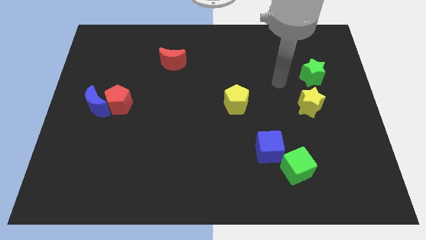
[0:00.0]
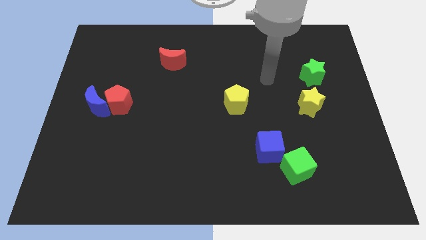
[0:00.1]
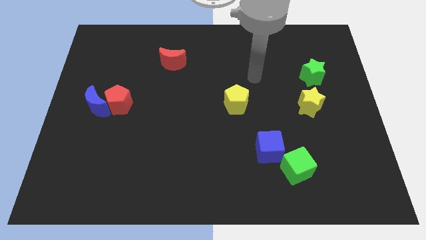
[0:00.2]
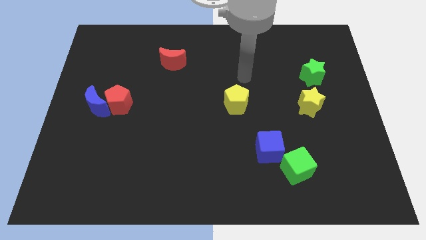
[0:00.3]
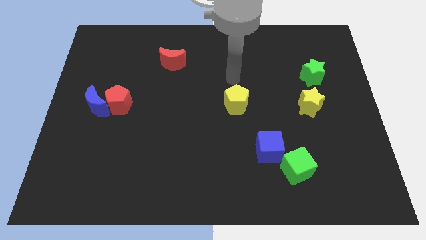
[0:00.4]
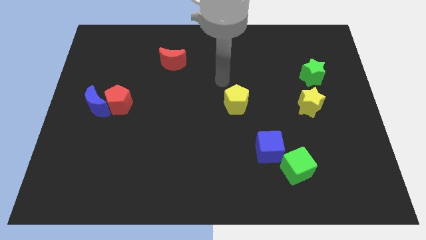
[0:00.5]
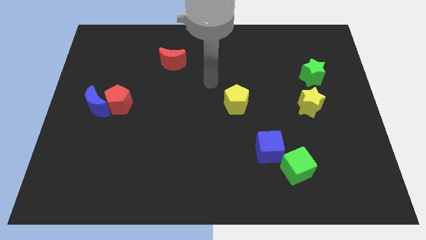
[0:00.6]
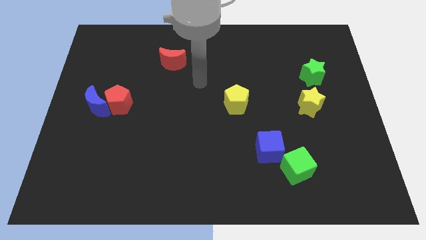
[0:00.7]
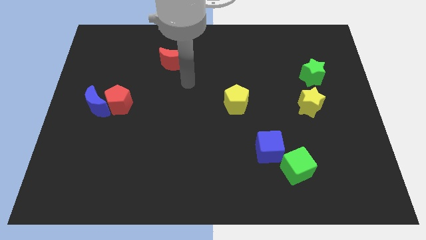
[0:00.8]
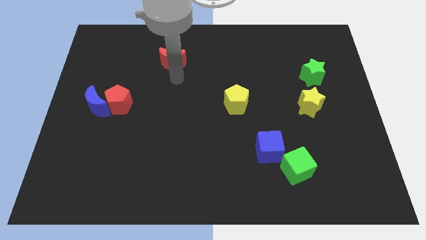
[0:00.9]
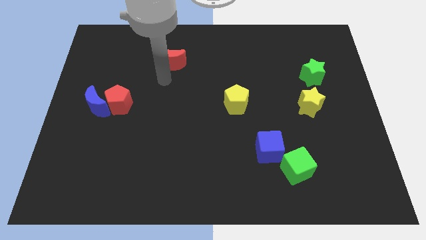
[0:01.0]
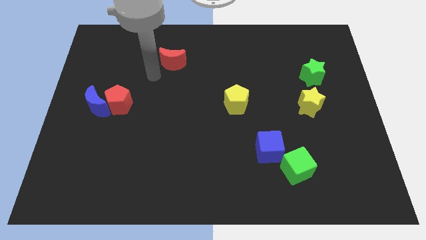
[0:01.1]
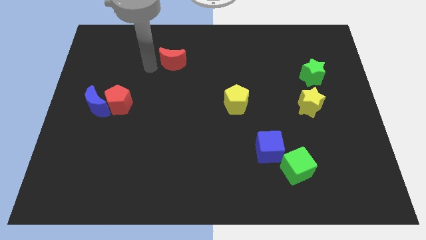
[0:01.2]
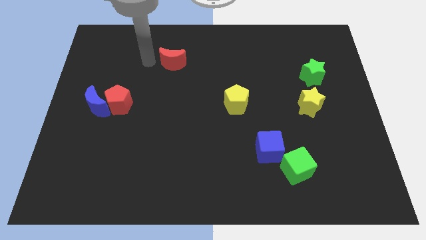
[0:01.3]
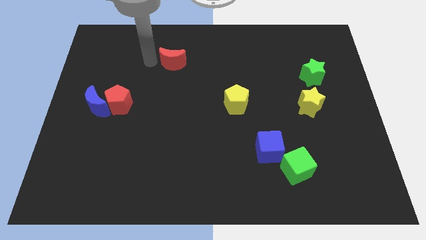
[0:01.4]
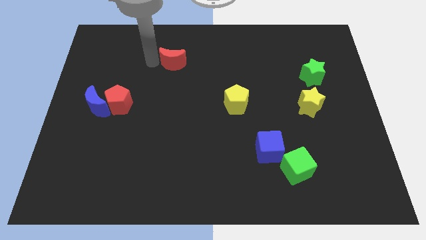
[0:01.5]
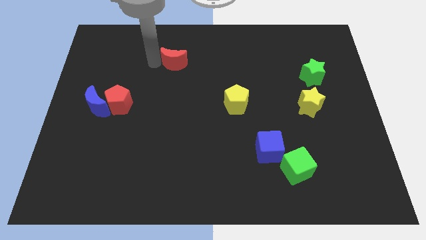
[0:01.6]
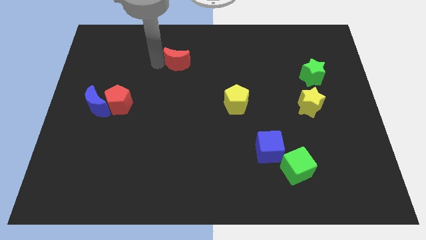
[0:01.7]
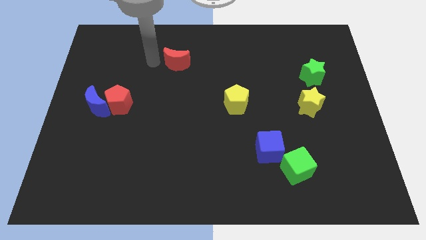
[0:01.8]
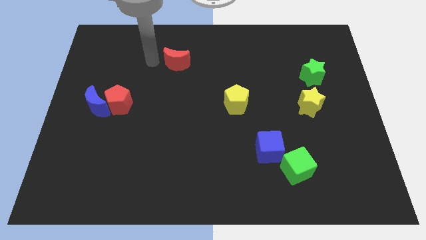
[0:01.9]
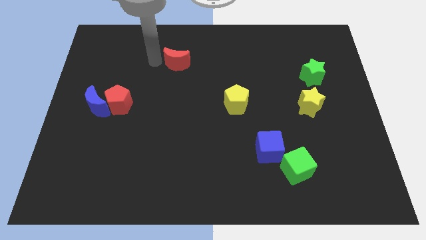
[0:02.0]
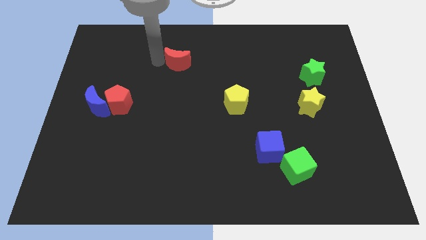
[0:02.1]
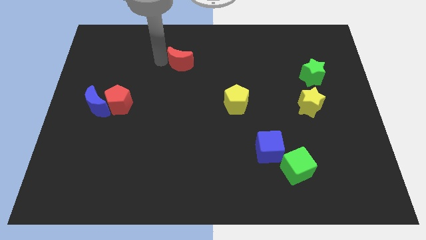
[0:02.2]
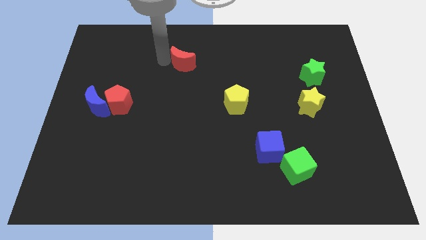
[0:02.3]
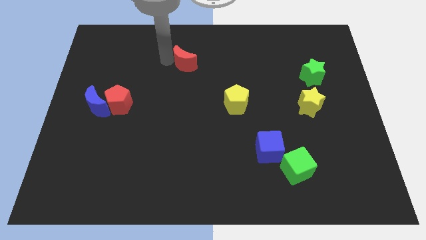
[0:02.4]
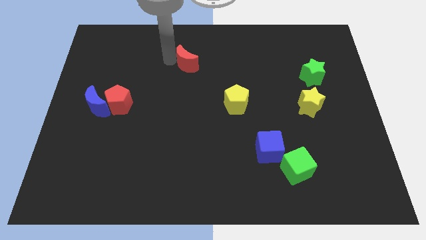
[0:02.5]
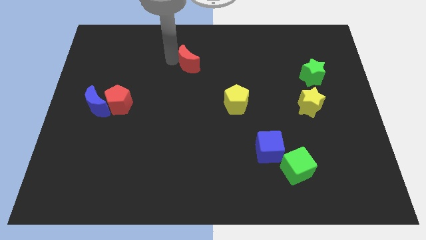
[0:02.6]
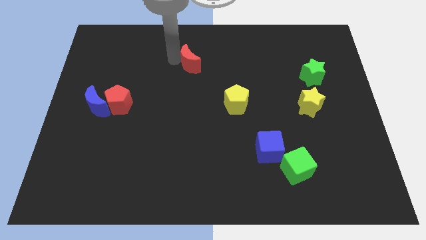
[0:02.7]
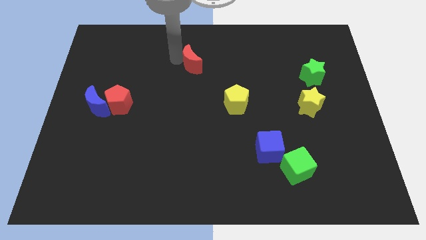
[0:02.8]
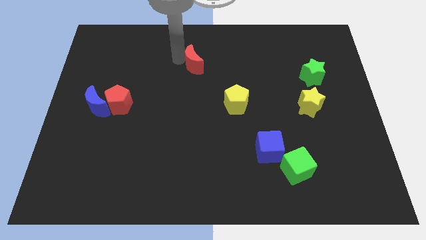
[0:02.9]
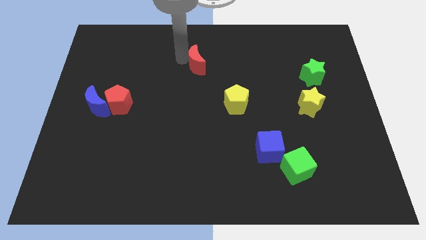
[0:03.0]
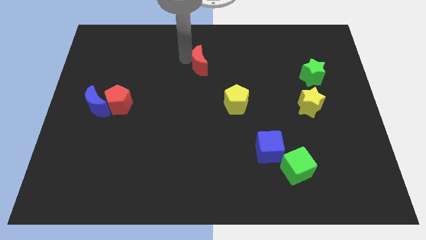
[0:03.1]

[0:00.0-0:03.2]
move the red moon a little right

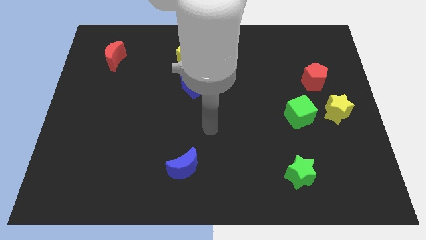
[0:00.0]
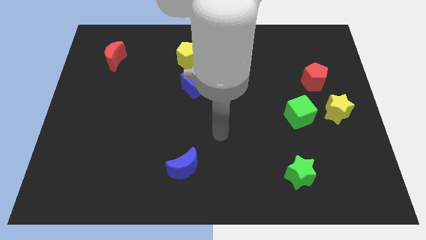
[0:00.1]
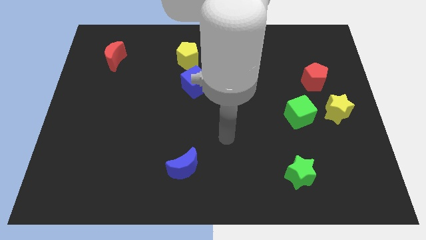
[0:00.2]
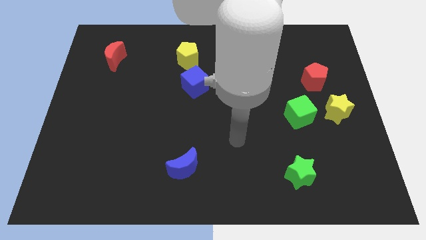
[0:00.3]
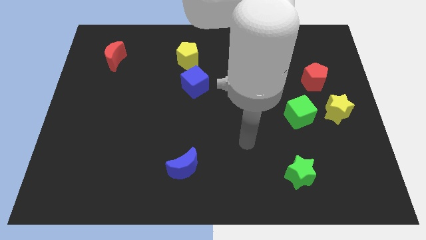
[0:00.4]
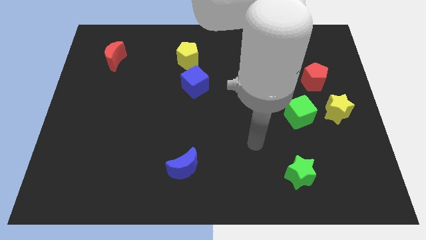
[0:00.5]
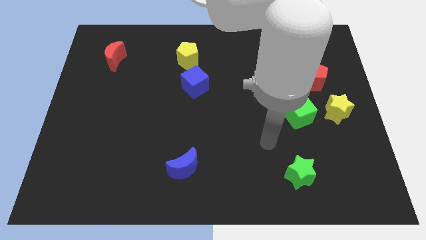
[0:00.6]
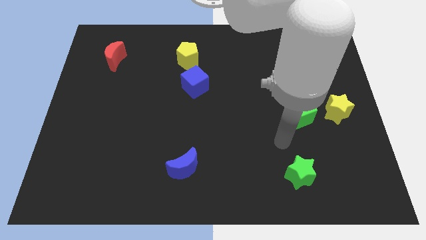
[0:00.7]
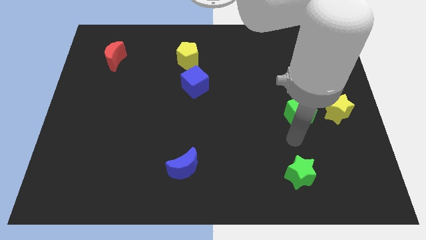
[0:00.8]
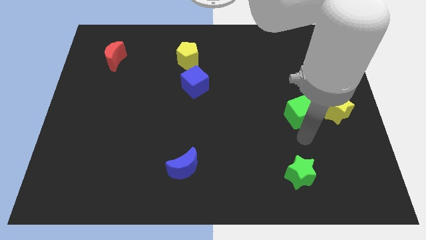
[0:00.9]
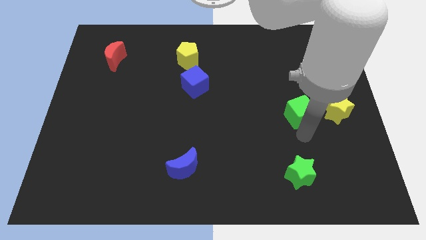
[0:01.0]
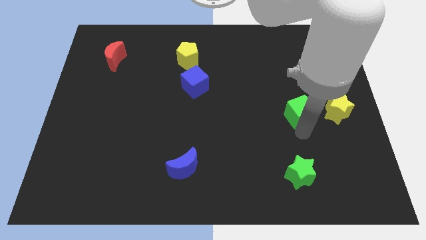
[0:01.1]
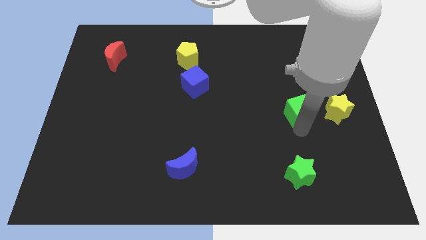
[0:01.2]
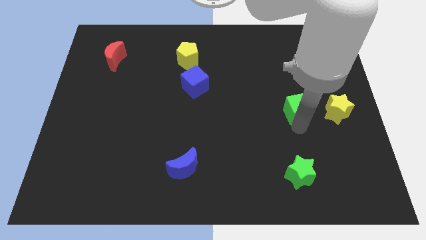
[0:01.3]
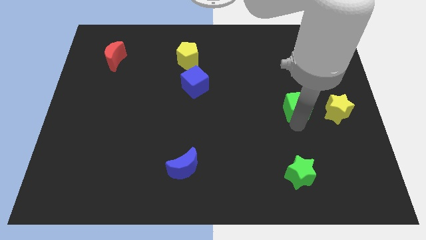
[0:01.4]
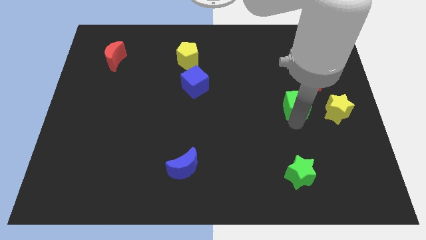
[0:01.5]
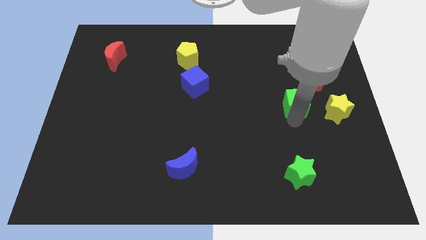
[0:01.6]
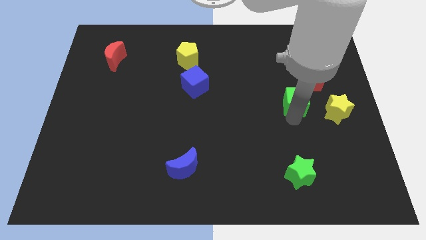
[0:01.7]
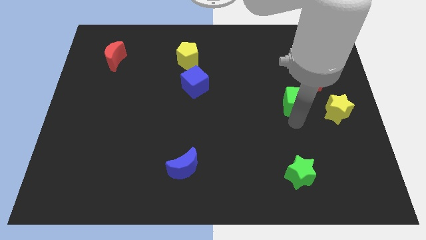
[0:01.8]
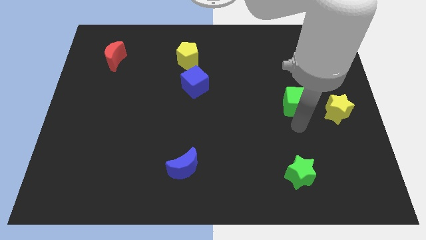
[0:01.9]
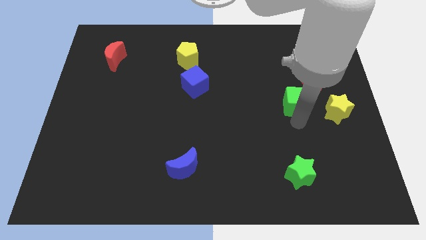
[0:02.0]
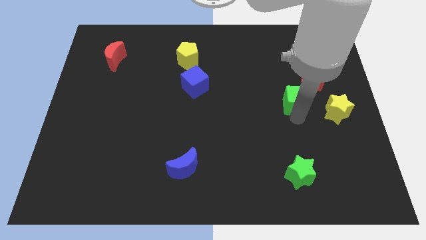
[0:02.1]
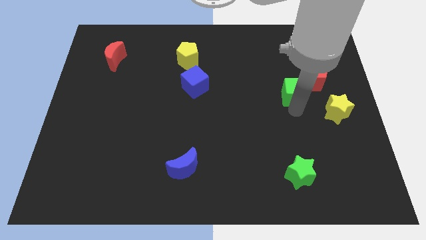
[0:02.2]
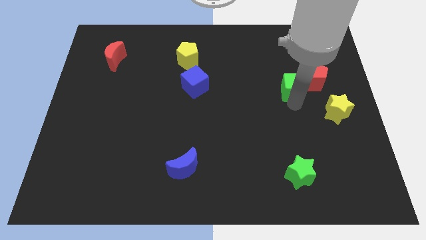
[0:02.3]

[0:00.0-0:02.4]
move the green cube a bit up

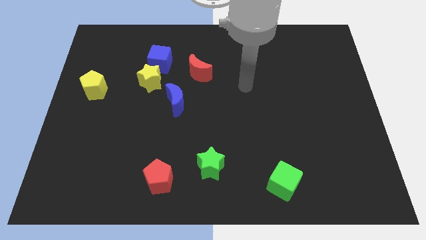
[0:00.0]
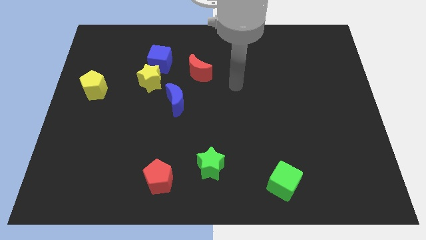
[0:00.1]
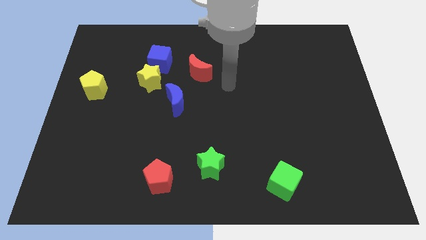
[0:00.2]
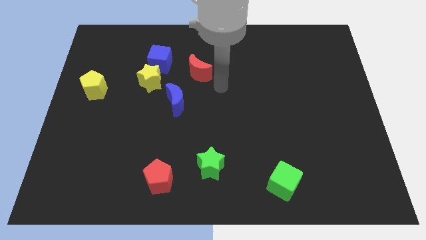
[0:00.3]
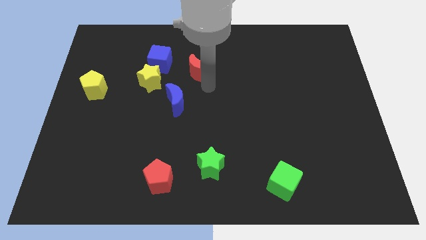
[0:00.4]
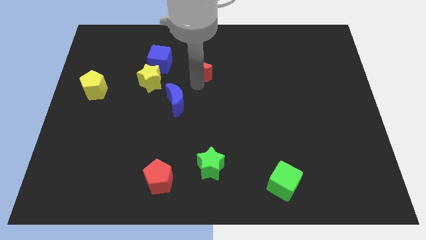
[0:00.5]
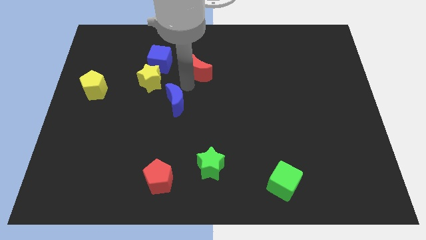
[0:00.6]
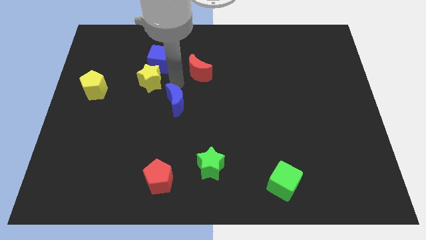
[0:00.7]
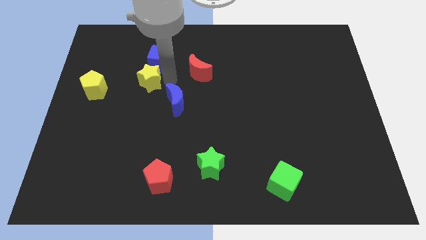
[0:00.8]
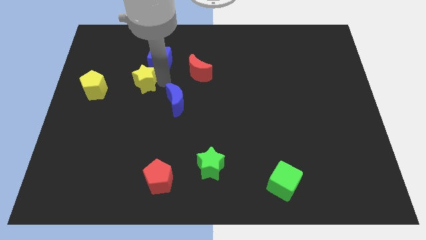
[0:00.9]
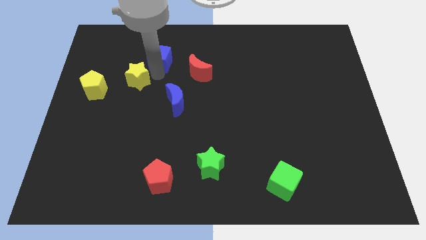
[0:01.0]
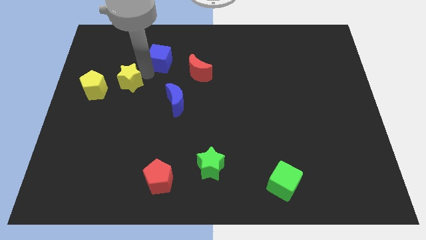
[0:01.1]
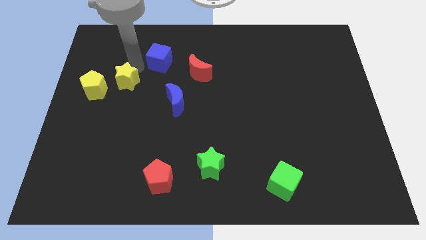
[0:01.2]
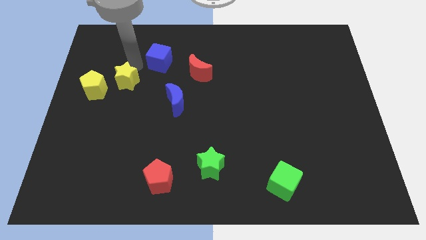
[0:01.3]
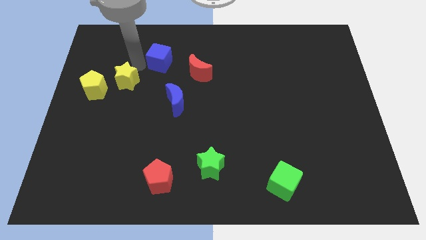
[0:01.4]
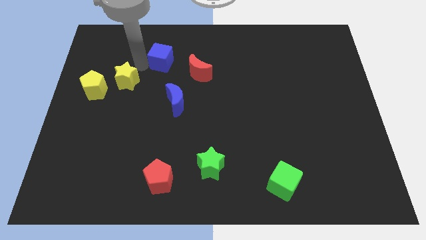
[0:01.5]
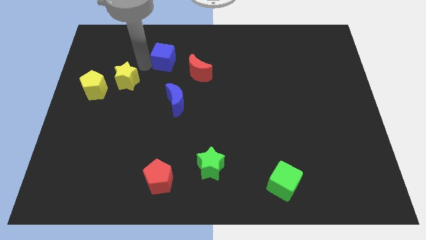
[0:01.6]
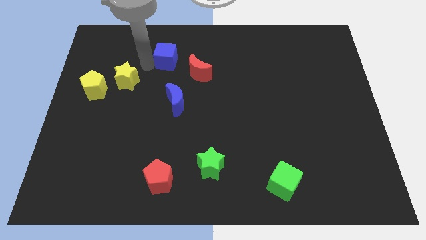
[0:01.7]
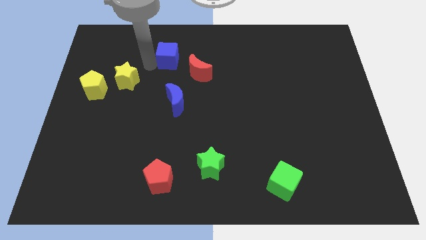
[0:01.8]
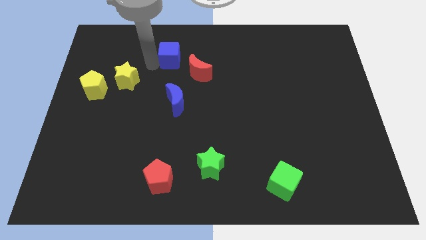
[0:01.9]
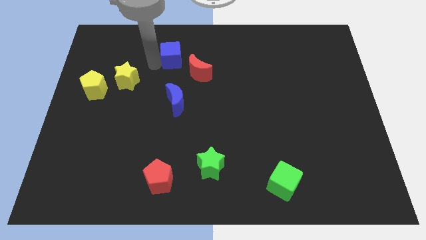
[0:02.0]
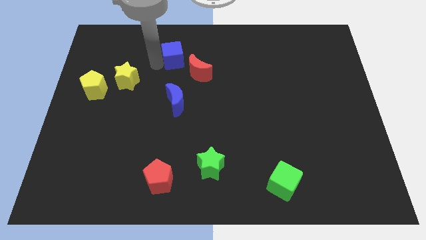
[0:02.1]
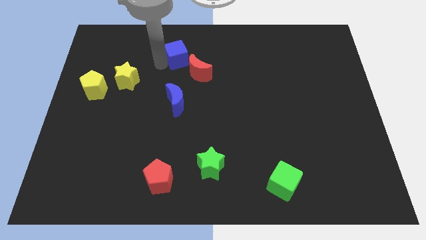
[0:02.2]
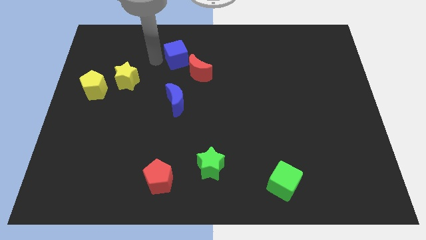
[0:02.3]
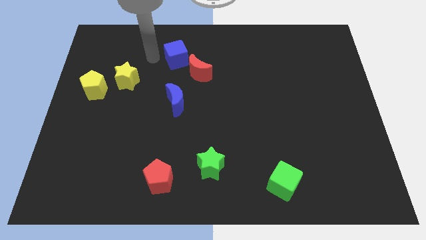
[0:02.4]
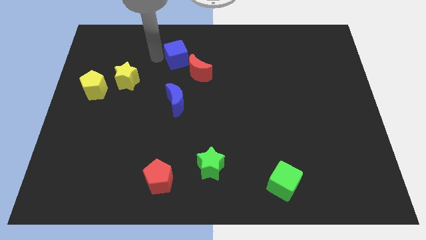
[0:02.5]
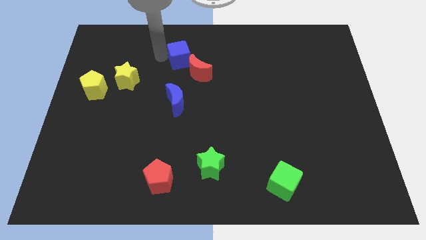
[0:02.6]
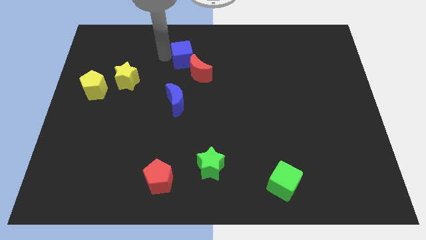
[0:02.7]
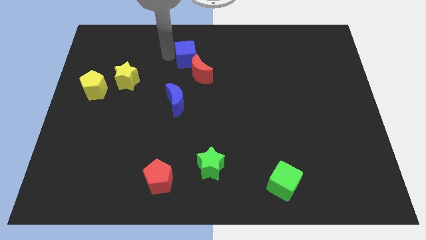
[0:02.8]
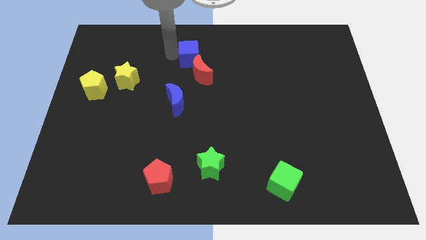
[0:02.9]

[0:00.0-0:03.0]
push the blue cube a bit right

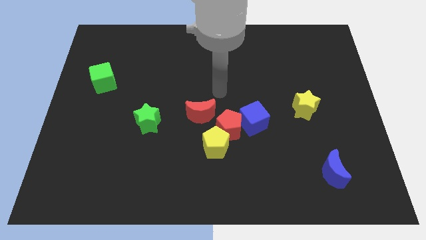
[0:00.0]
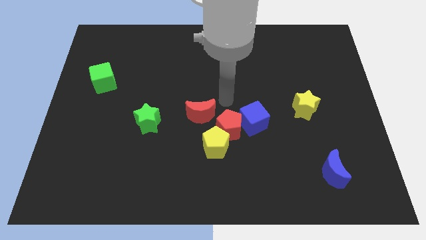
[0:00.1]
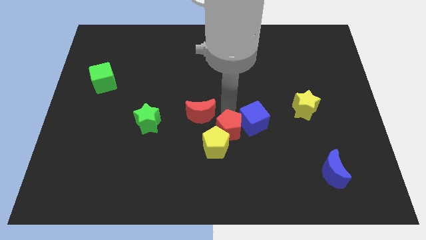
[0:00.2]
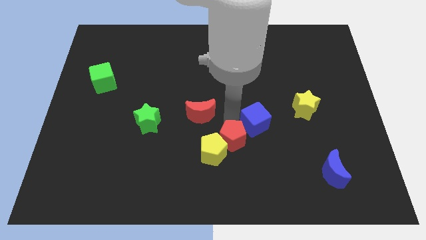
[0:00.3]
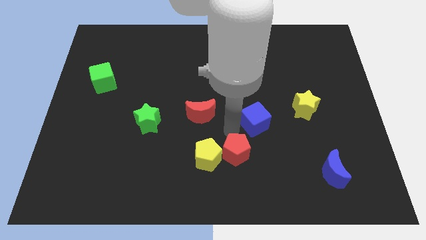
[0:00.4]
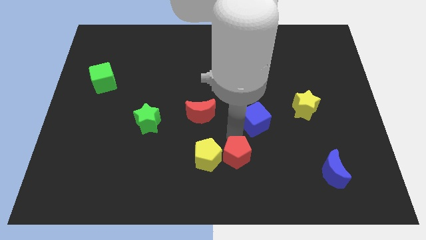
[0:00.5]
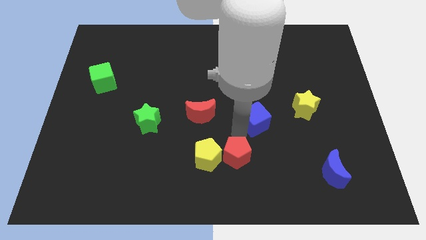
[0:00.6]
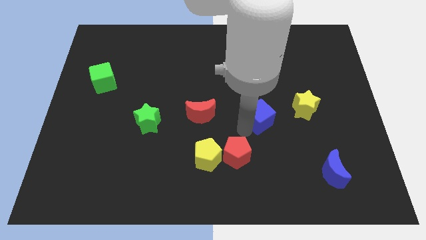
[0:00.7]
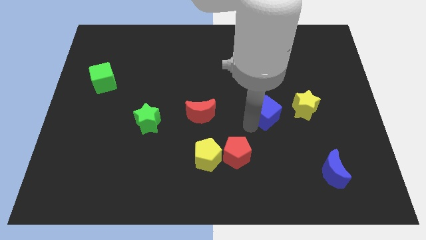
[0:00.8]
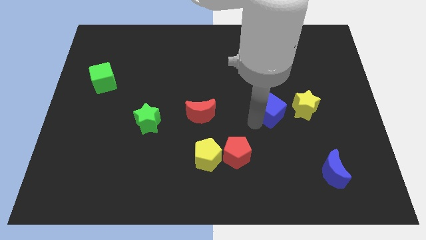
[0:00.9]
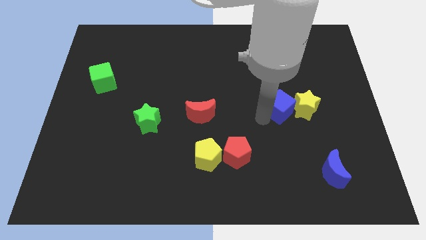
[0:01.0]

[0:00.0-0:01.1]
slide the blue cube a bit upwards and then to the right
